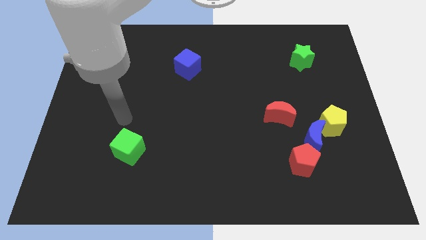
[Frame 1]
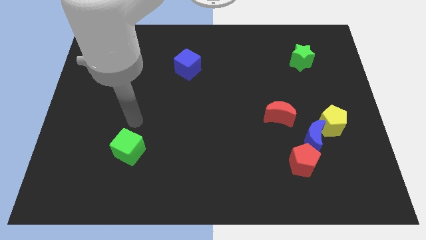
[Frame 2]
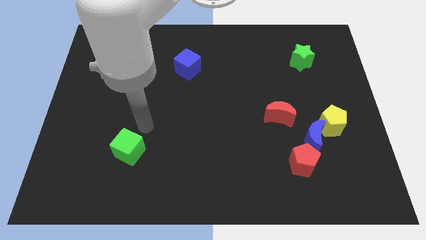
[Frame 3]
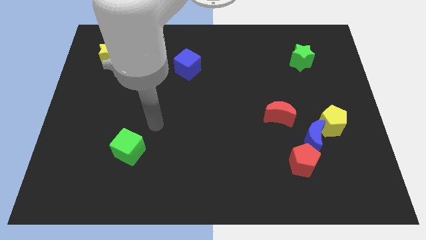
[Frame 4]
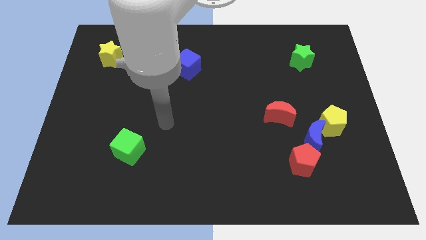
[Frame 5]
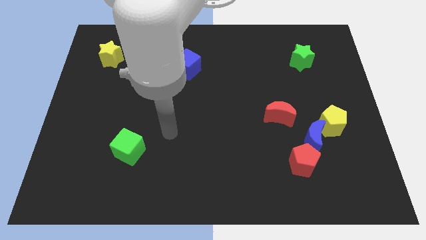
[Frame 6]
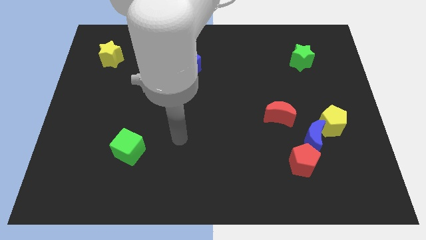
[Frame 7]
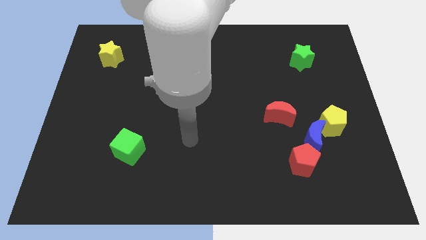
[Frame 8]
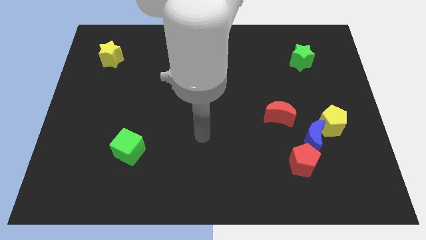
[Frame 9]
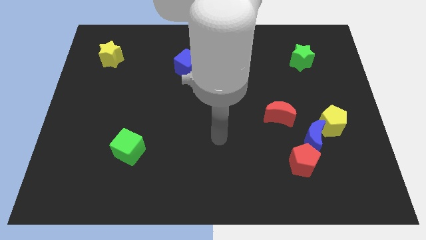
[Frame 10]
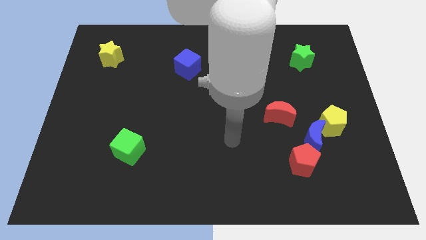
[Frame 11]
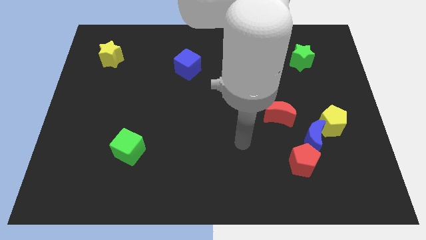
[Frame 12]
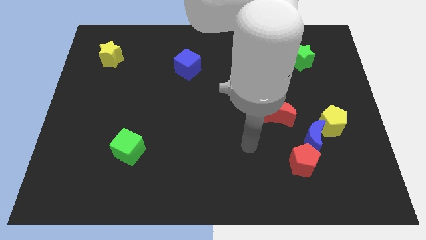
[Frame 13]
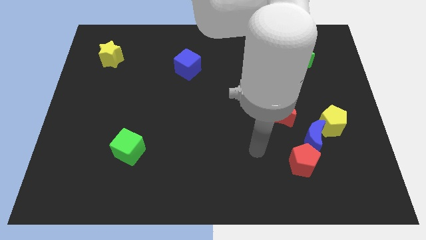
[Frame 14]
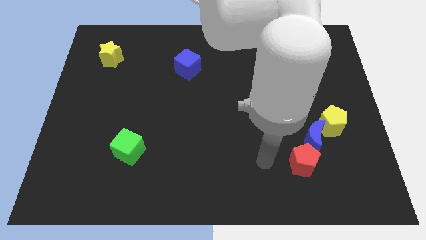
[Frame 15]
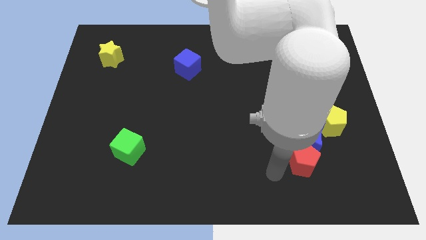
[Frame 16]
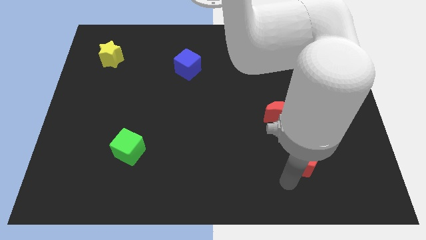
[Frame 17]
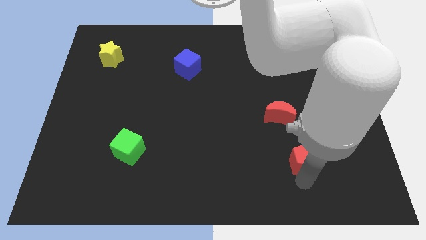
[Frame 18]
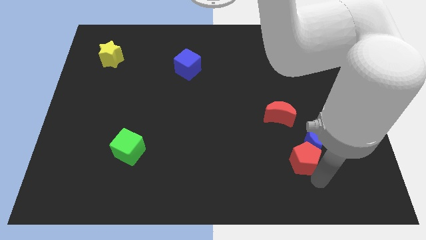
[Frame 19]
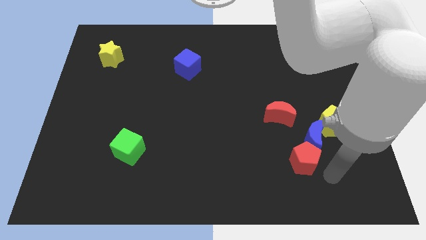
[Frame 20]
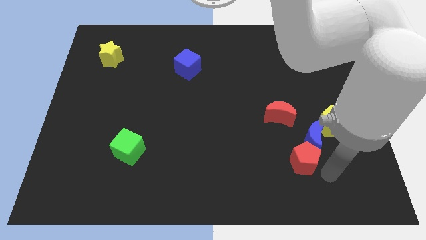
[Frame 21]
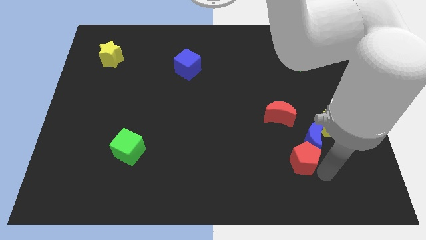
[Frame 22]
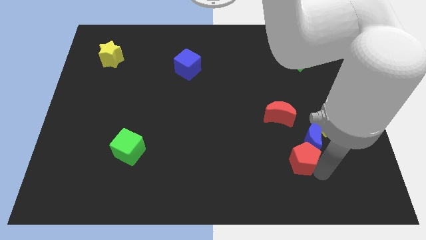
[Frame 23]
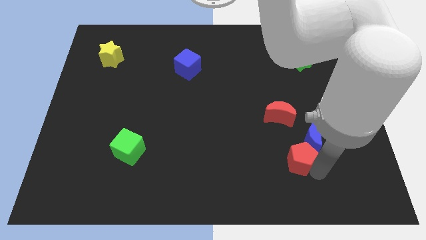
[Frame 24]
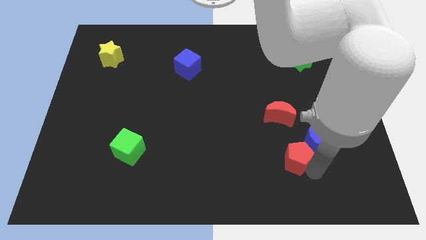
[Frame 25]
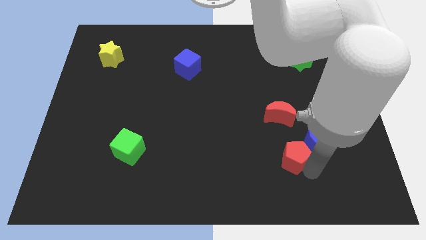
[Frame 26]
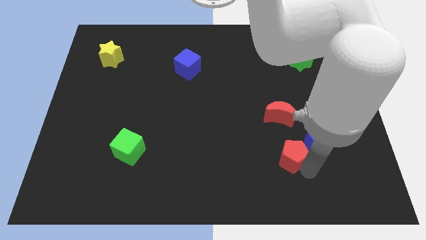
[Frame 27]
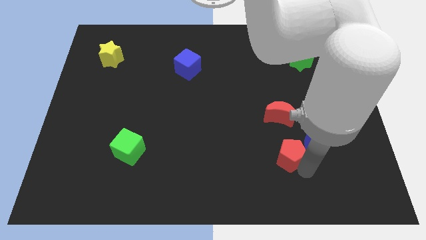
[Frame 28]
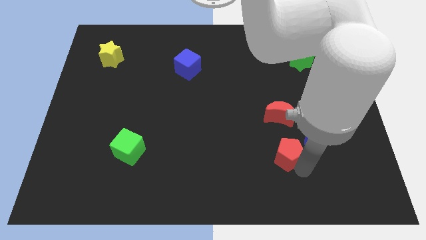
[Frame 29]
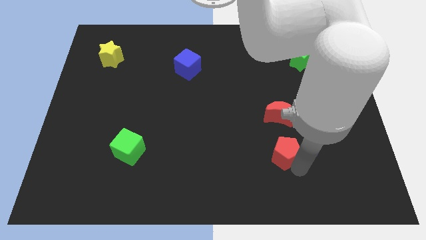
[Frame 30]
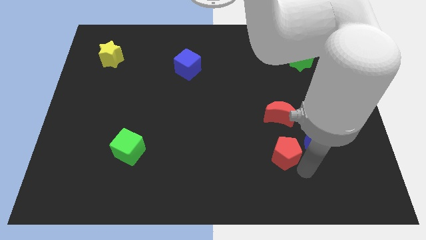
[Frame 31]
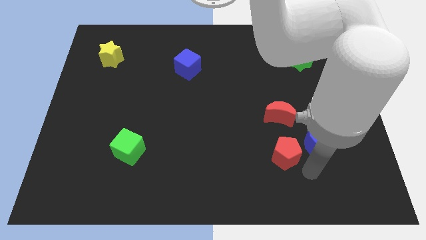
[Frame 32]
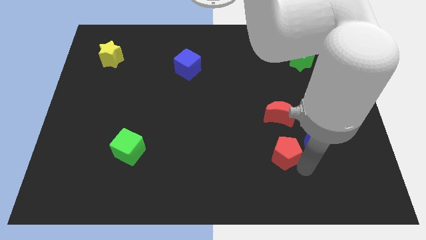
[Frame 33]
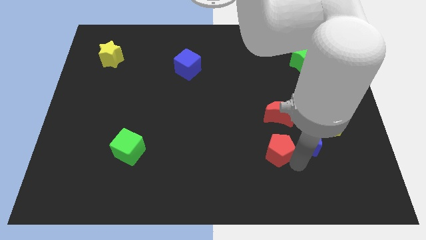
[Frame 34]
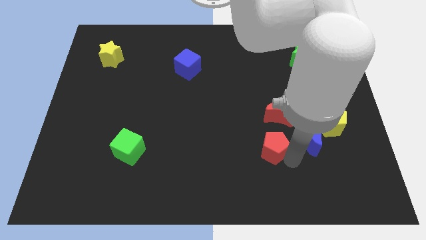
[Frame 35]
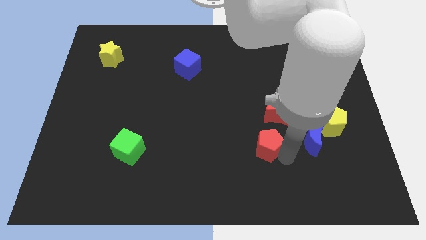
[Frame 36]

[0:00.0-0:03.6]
move the red pentagon slightly diagonally up and left

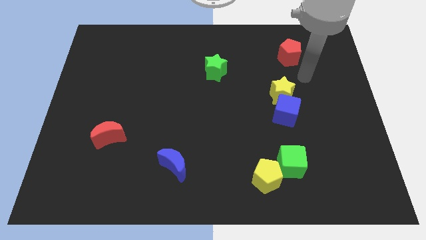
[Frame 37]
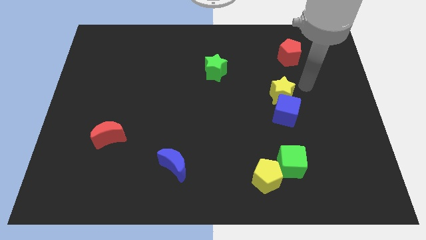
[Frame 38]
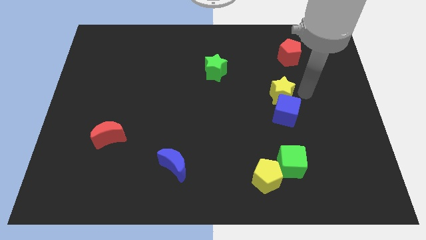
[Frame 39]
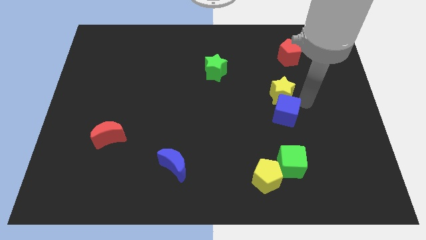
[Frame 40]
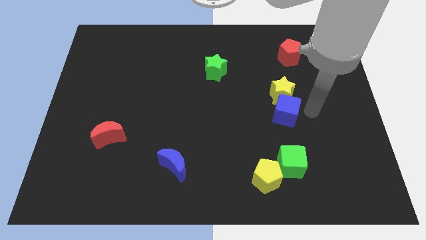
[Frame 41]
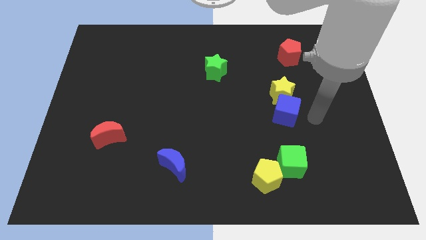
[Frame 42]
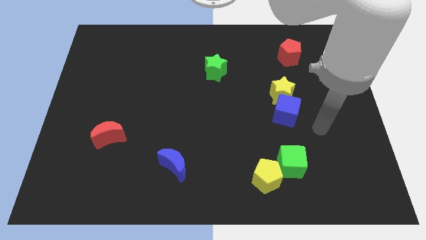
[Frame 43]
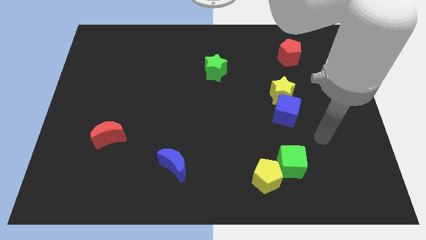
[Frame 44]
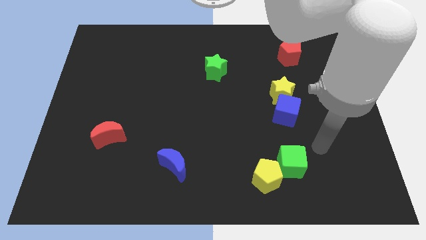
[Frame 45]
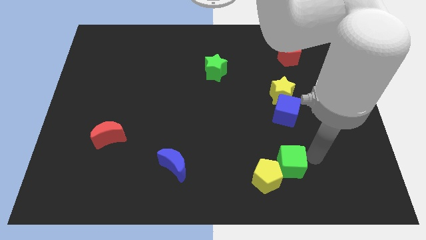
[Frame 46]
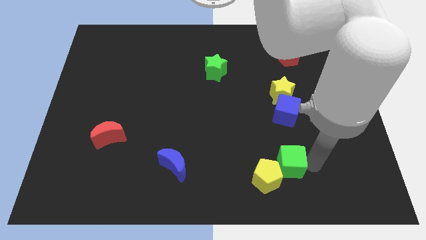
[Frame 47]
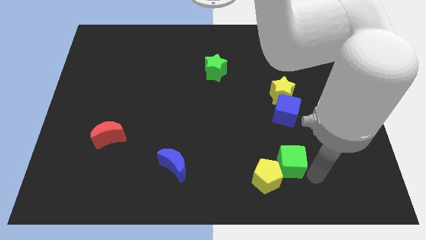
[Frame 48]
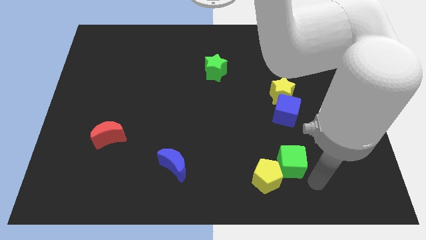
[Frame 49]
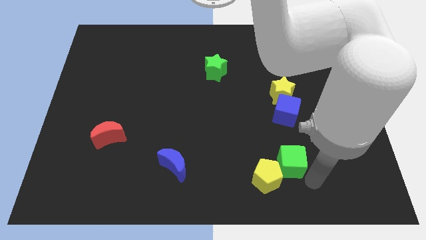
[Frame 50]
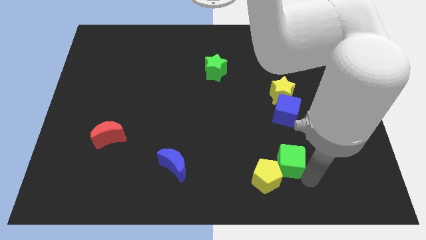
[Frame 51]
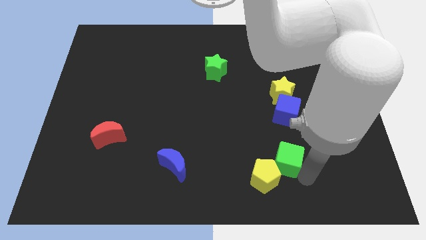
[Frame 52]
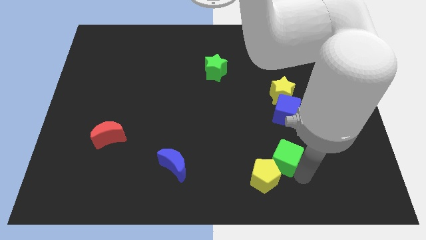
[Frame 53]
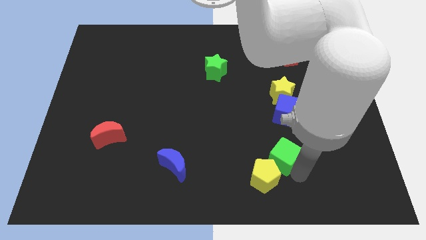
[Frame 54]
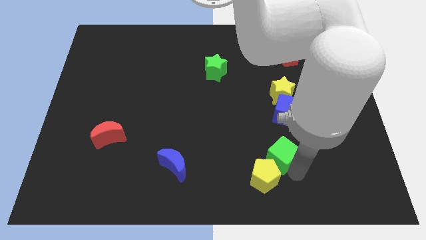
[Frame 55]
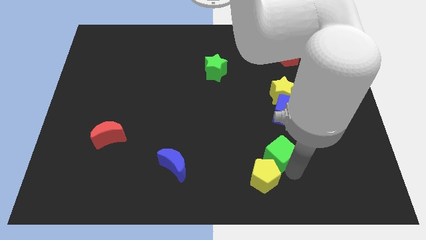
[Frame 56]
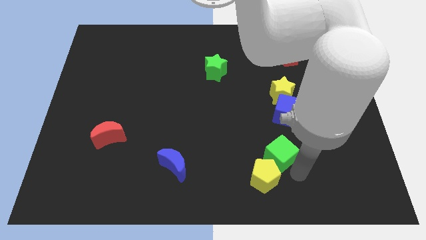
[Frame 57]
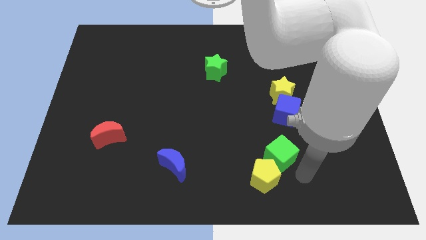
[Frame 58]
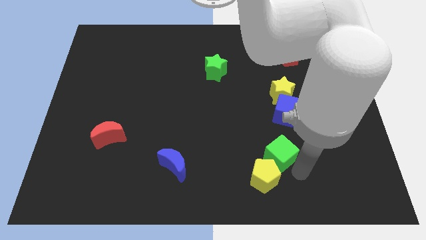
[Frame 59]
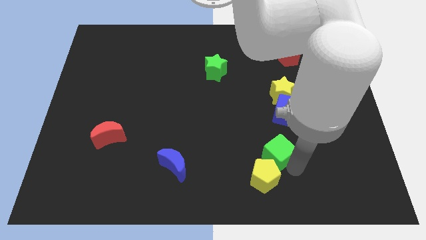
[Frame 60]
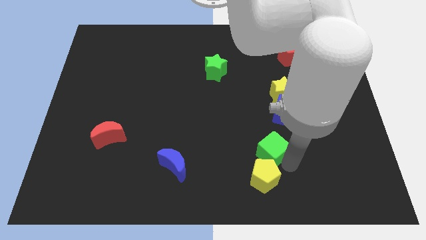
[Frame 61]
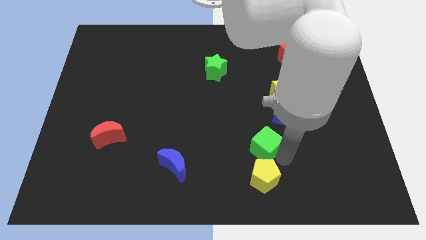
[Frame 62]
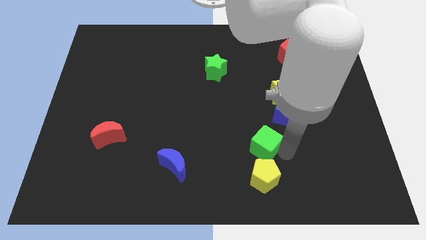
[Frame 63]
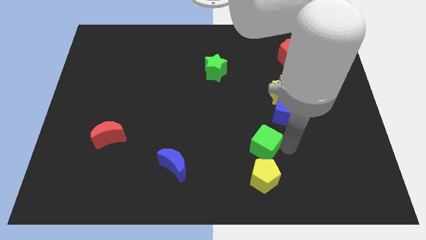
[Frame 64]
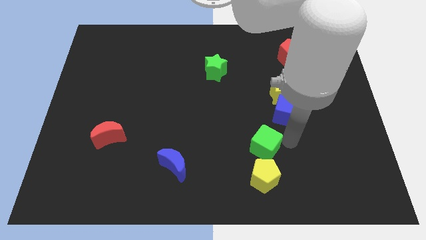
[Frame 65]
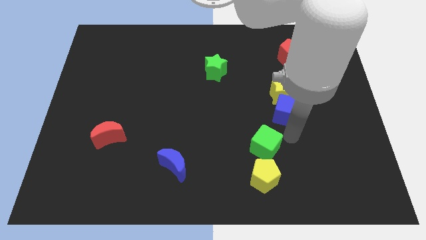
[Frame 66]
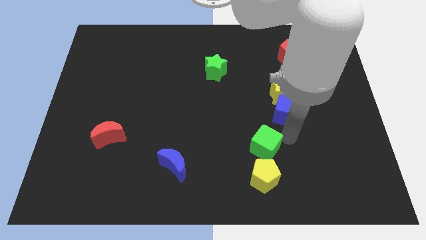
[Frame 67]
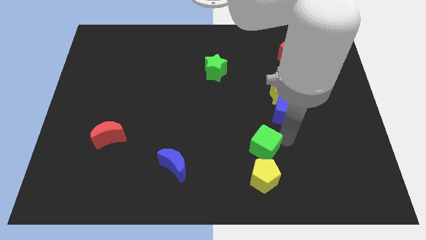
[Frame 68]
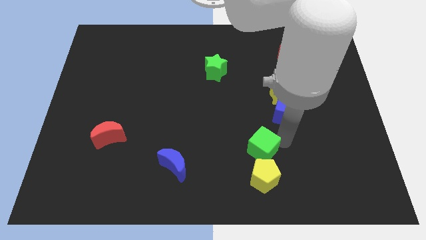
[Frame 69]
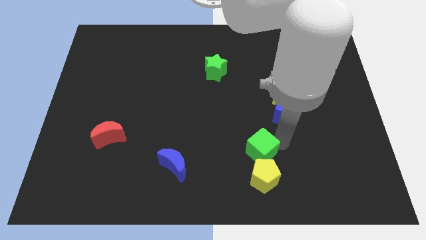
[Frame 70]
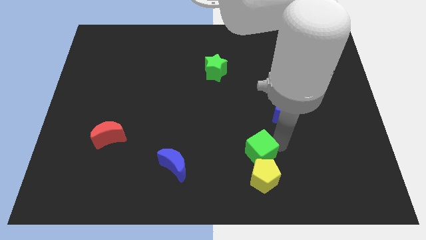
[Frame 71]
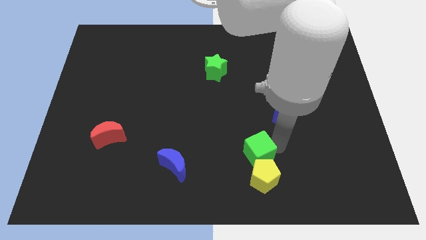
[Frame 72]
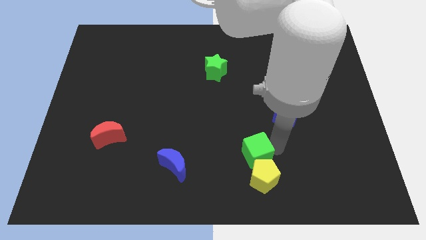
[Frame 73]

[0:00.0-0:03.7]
move the green cube left slightly

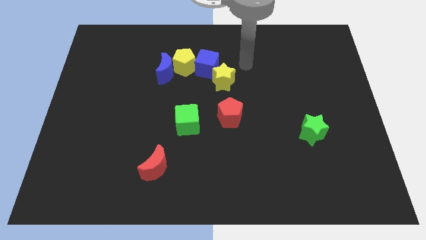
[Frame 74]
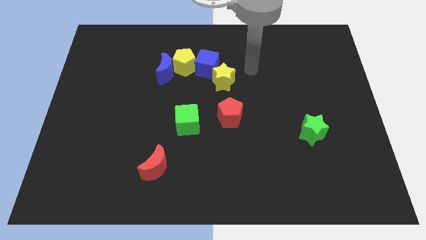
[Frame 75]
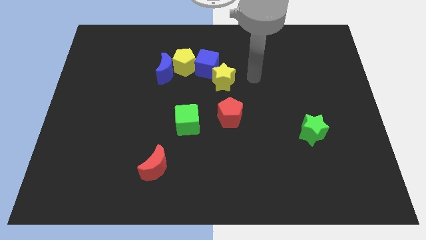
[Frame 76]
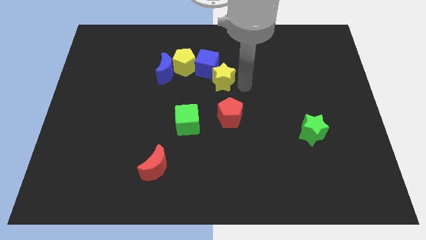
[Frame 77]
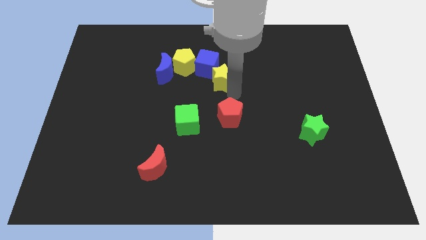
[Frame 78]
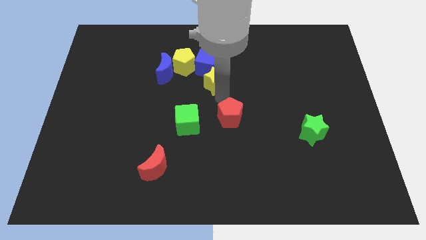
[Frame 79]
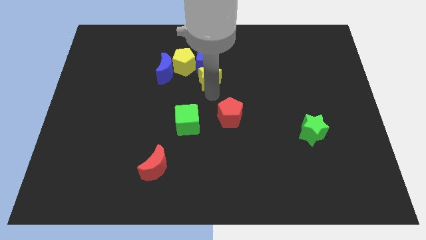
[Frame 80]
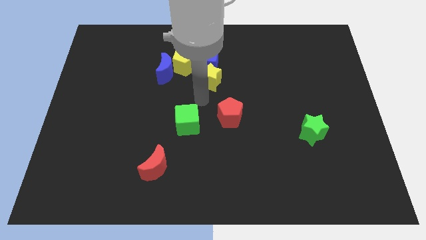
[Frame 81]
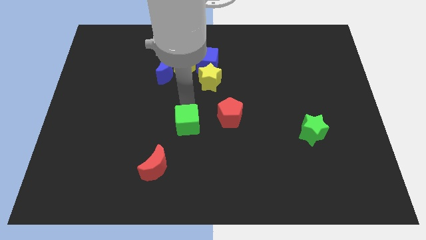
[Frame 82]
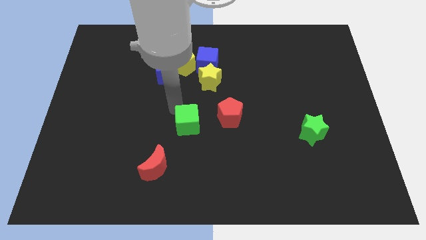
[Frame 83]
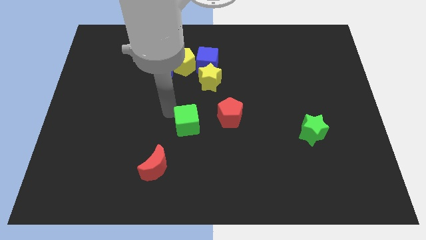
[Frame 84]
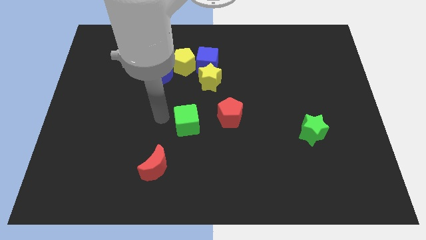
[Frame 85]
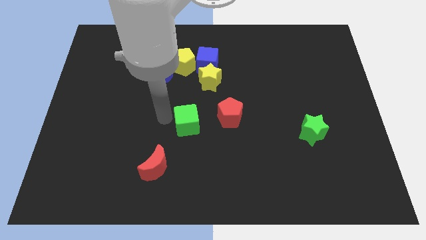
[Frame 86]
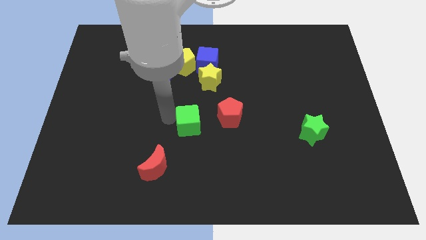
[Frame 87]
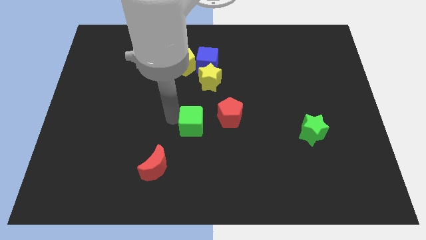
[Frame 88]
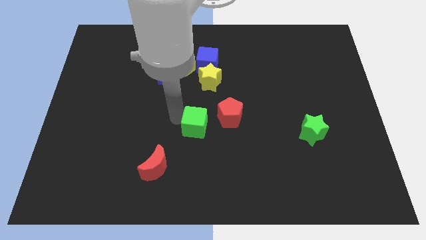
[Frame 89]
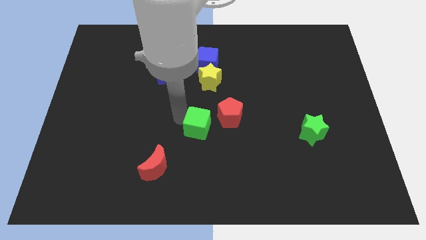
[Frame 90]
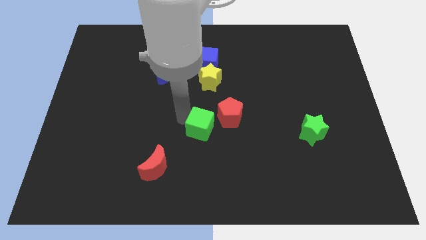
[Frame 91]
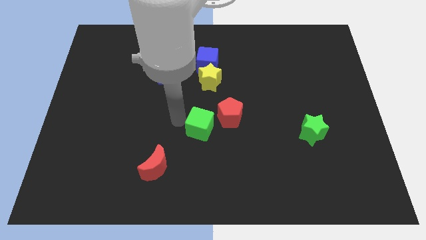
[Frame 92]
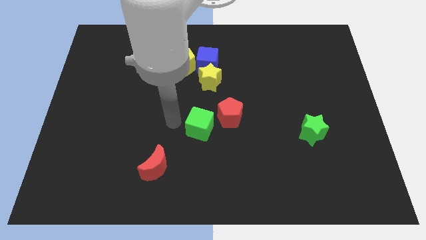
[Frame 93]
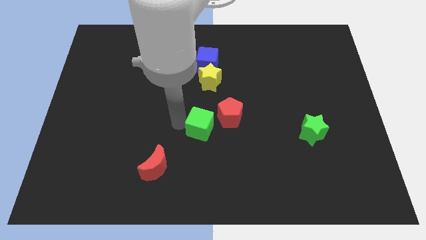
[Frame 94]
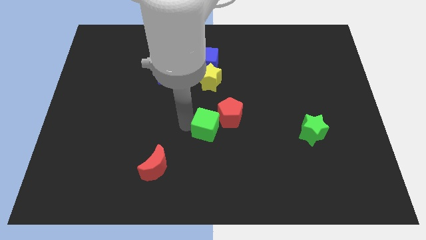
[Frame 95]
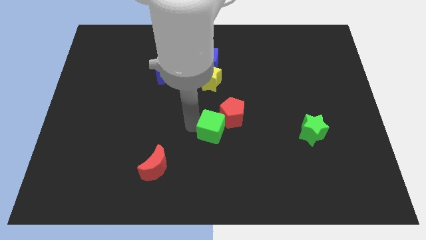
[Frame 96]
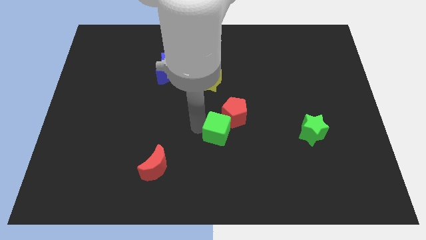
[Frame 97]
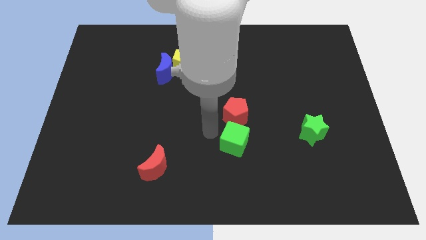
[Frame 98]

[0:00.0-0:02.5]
push the green cube a little right
